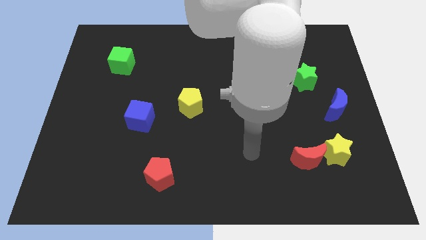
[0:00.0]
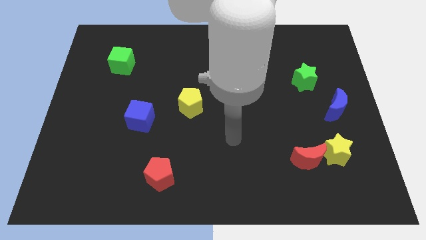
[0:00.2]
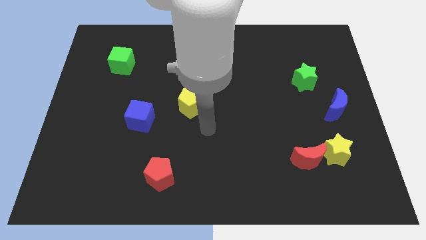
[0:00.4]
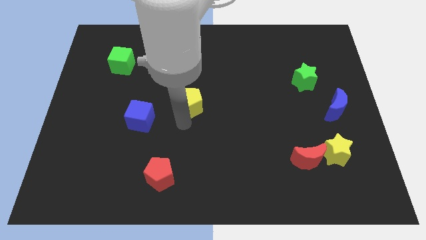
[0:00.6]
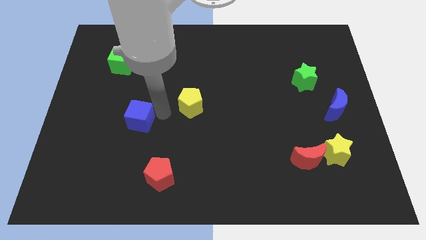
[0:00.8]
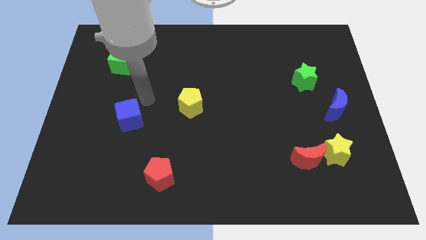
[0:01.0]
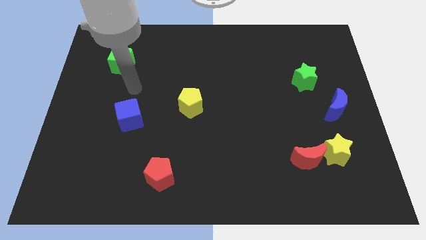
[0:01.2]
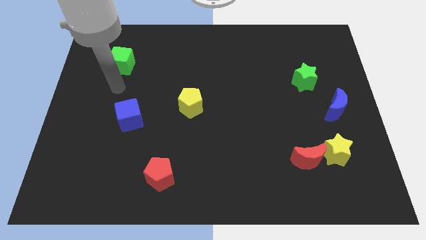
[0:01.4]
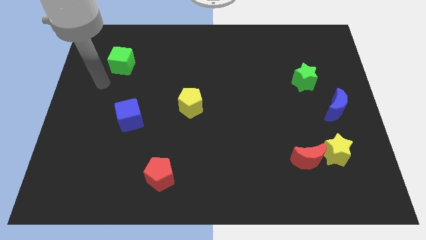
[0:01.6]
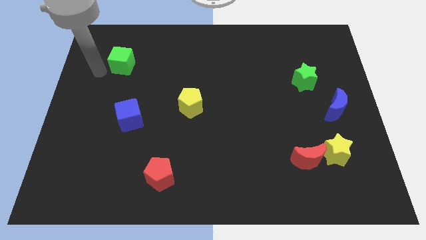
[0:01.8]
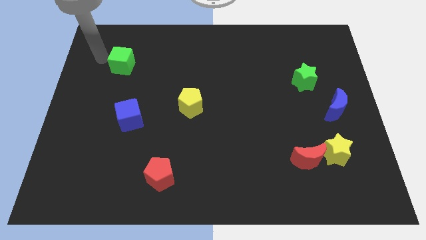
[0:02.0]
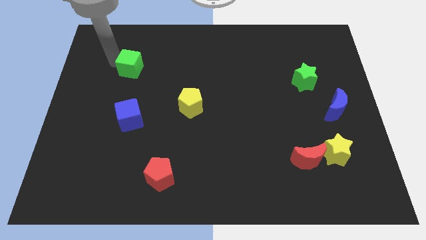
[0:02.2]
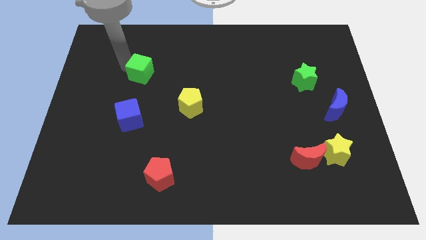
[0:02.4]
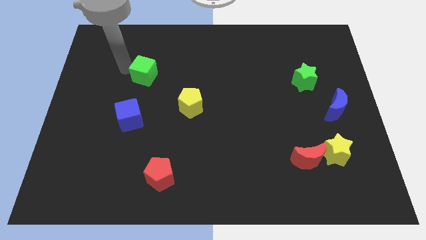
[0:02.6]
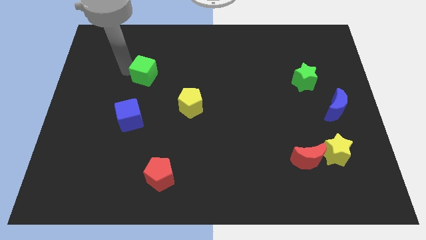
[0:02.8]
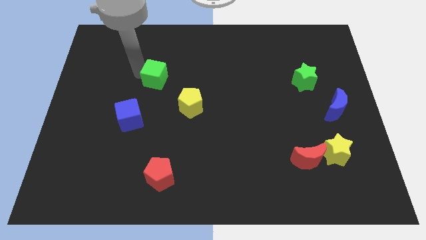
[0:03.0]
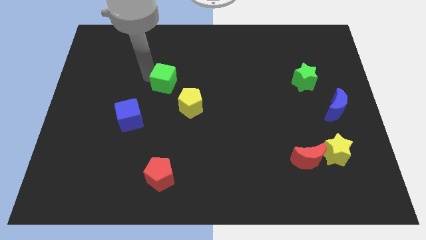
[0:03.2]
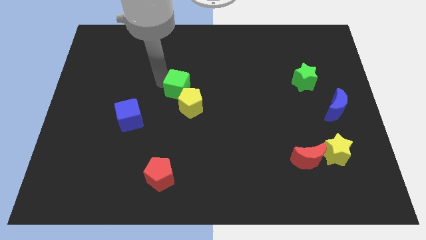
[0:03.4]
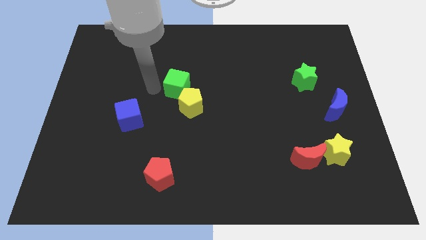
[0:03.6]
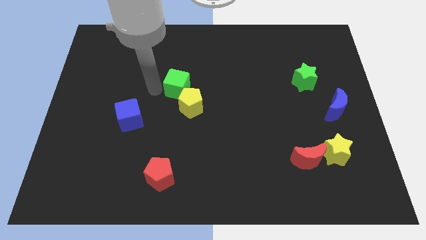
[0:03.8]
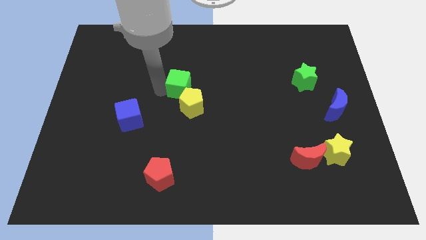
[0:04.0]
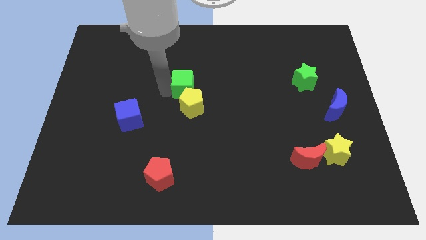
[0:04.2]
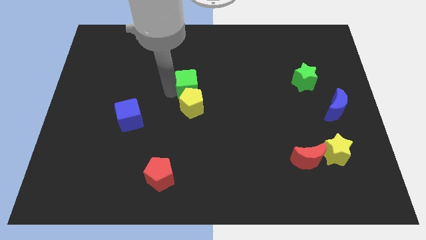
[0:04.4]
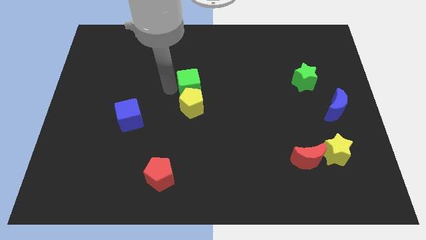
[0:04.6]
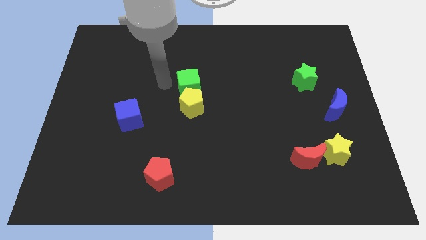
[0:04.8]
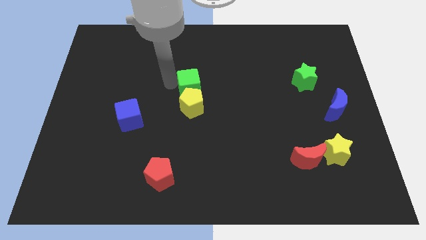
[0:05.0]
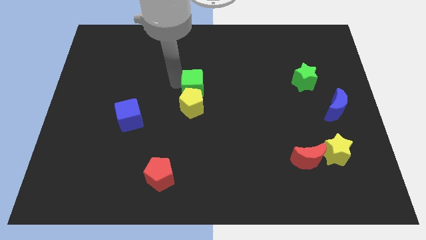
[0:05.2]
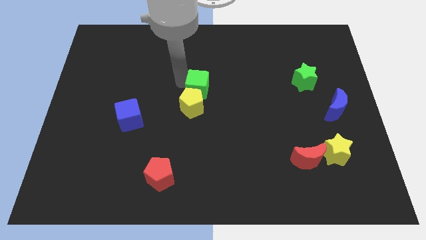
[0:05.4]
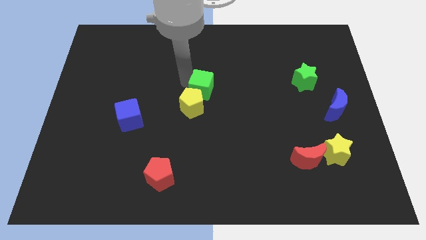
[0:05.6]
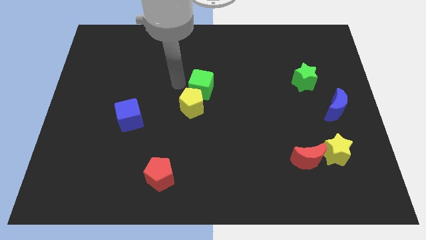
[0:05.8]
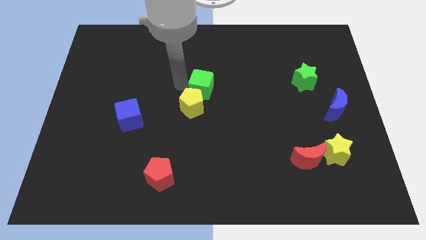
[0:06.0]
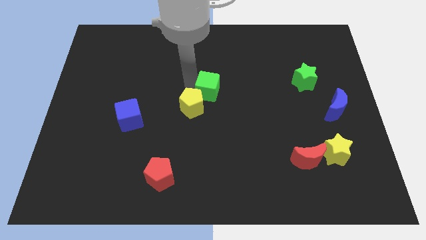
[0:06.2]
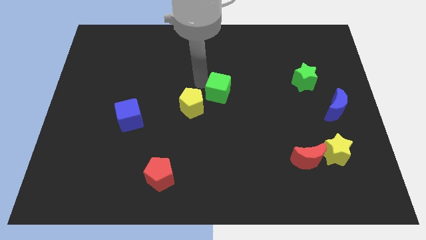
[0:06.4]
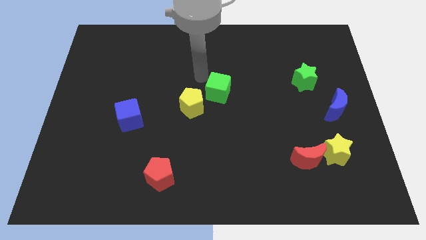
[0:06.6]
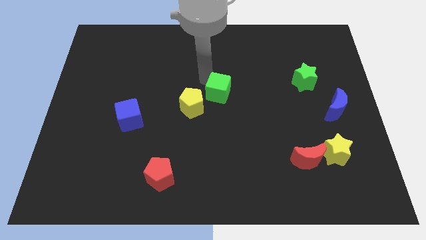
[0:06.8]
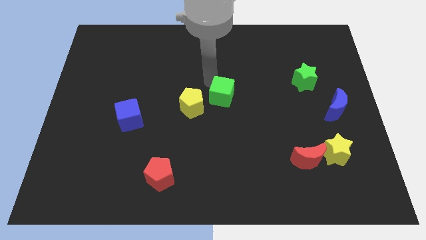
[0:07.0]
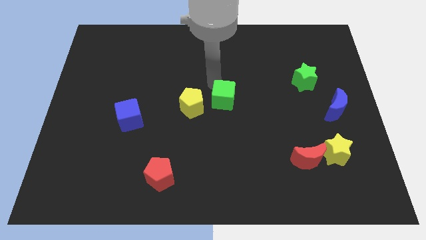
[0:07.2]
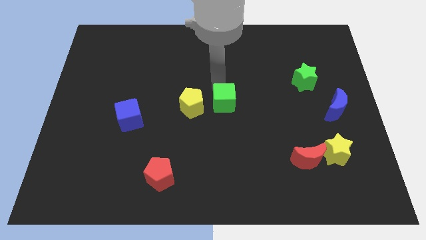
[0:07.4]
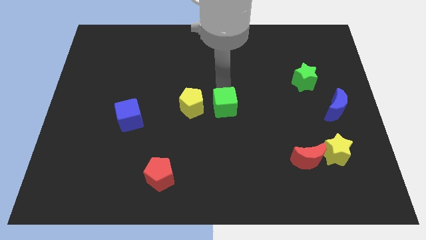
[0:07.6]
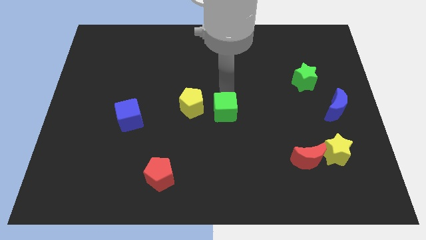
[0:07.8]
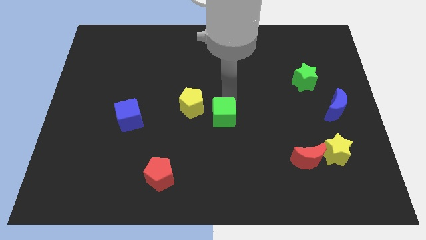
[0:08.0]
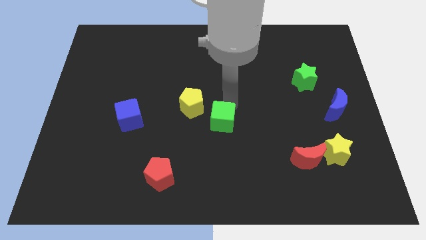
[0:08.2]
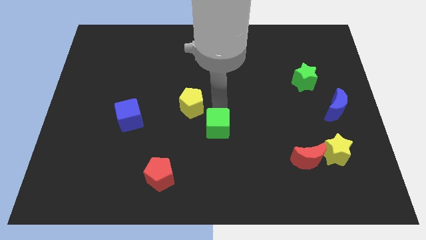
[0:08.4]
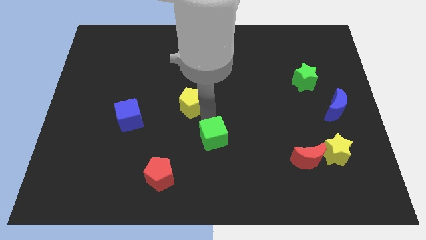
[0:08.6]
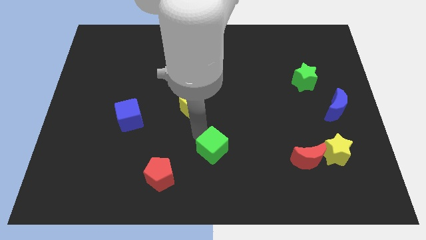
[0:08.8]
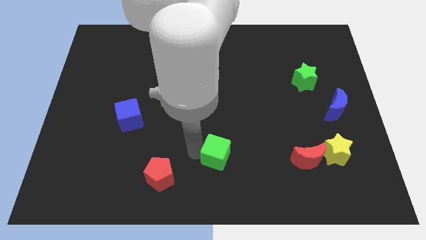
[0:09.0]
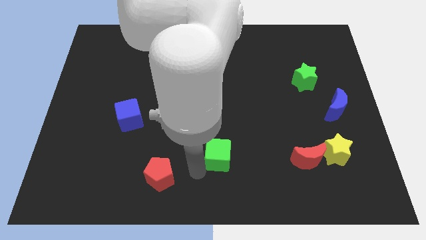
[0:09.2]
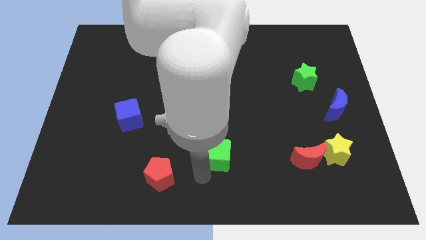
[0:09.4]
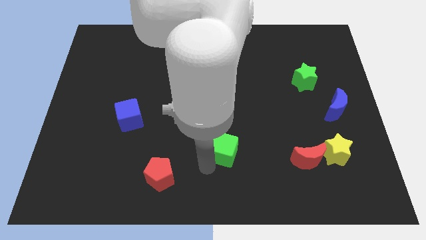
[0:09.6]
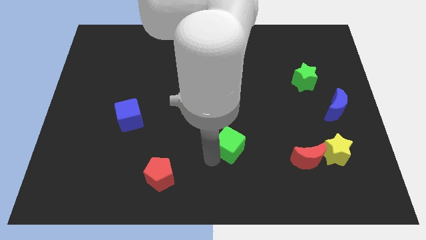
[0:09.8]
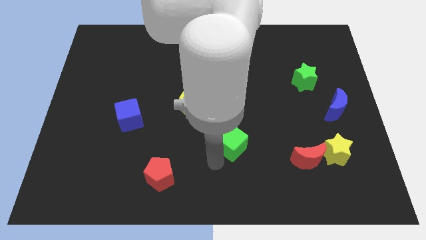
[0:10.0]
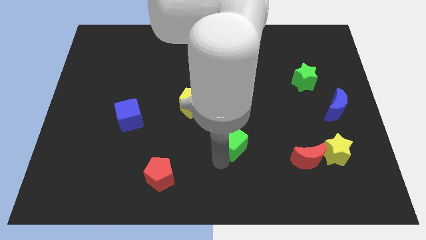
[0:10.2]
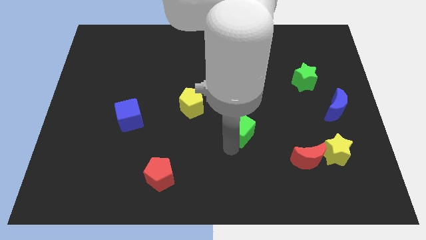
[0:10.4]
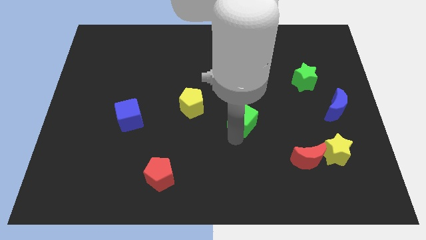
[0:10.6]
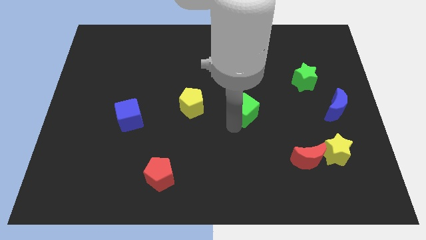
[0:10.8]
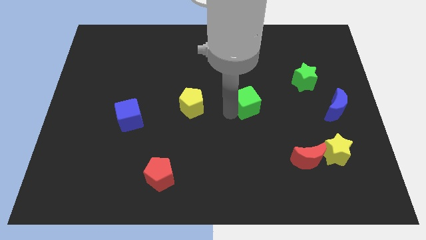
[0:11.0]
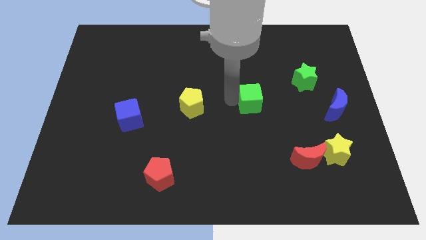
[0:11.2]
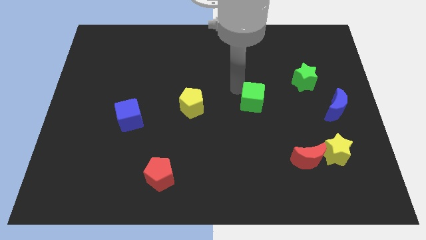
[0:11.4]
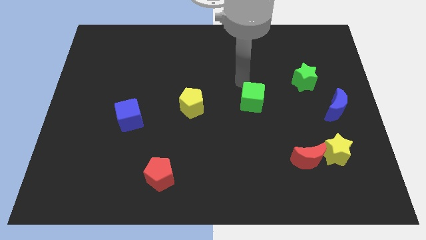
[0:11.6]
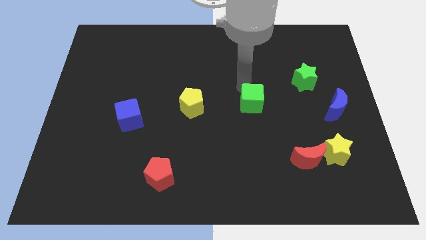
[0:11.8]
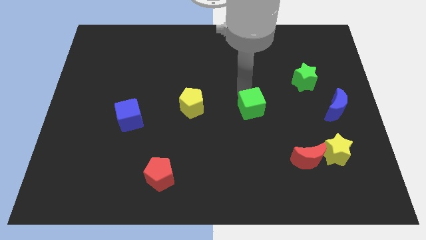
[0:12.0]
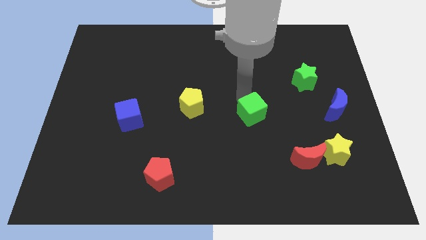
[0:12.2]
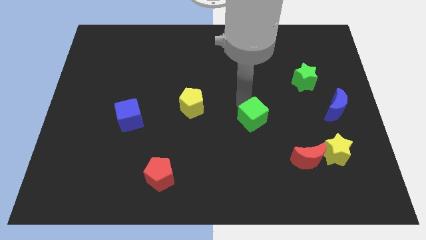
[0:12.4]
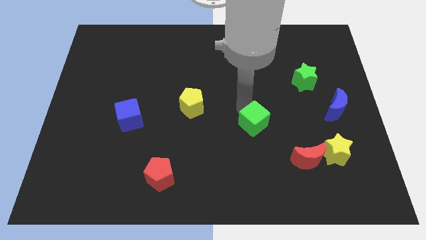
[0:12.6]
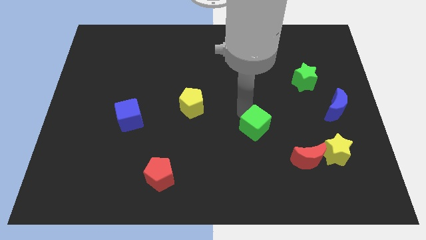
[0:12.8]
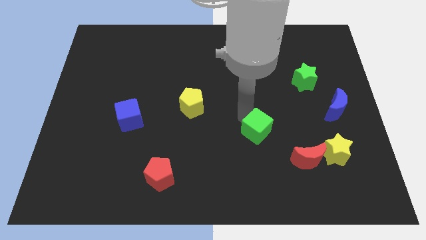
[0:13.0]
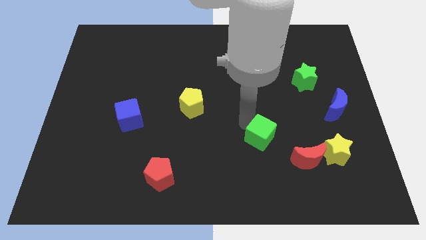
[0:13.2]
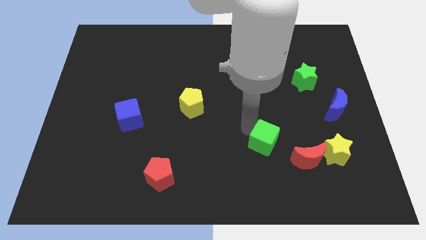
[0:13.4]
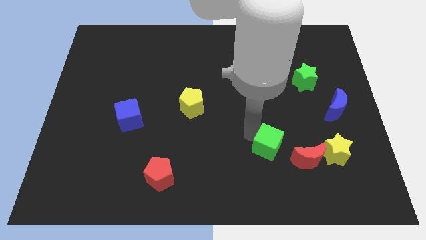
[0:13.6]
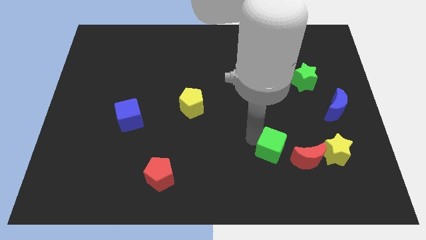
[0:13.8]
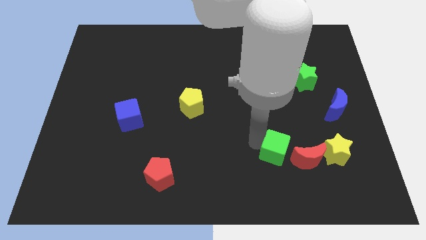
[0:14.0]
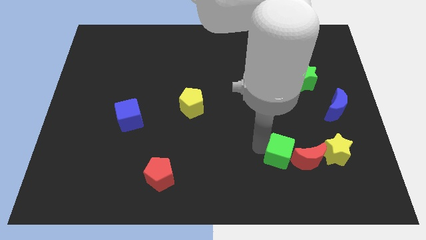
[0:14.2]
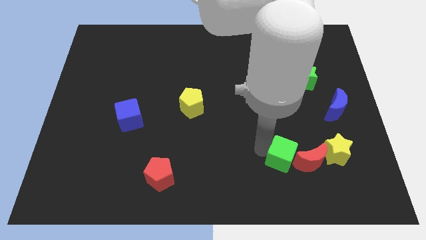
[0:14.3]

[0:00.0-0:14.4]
put the green cube to the red moon

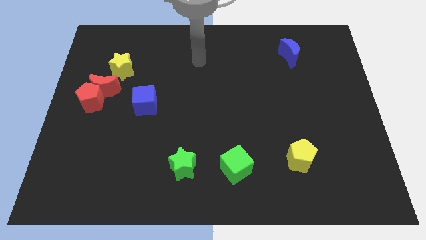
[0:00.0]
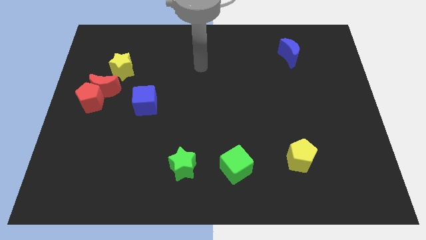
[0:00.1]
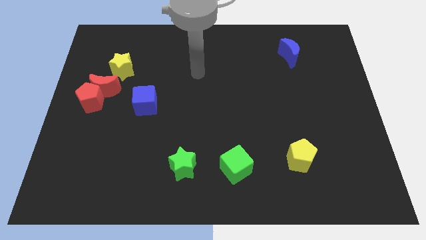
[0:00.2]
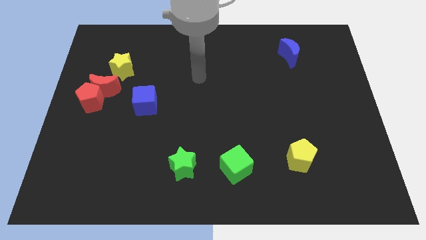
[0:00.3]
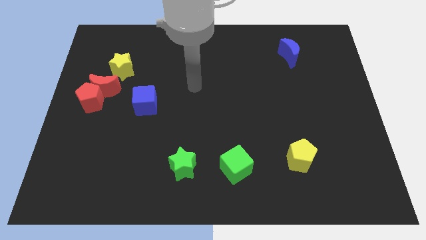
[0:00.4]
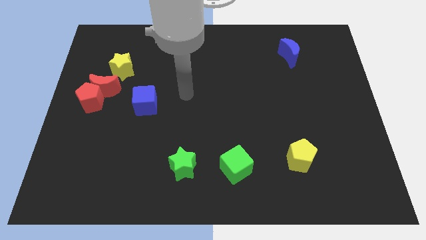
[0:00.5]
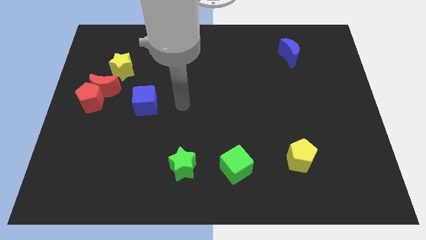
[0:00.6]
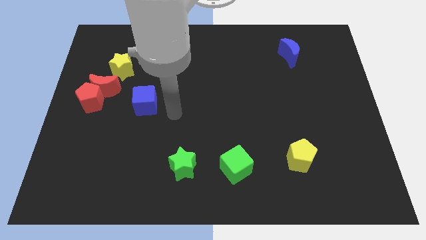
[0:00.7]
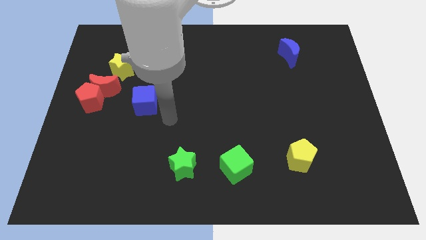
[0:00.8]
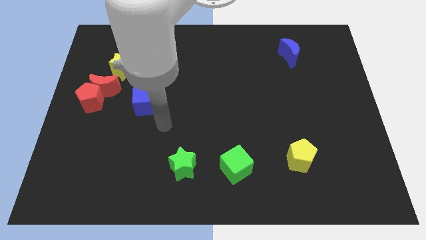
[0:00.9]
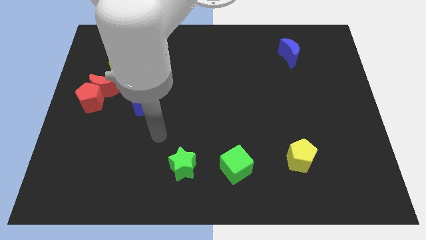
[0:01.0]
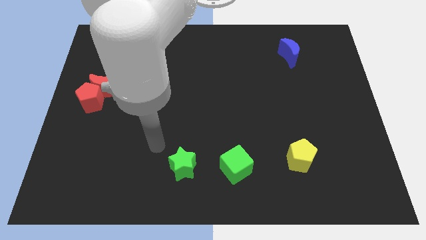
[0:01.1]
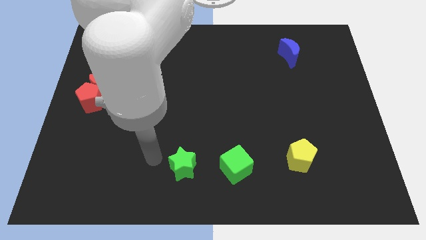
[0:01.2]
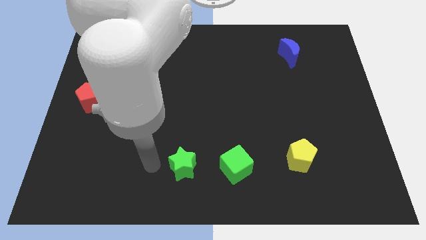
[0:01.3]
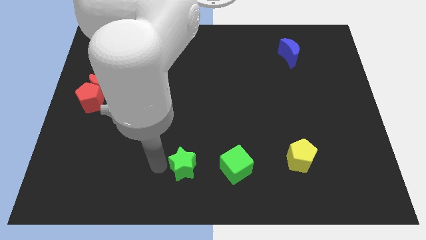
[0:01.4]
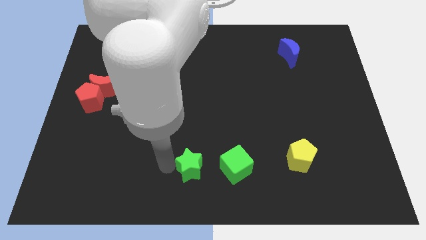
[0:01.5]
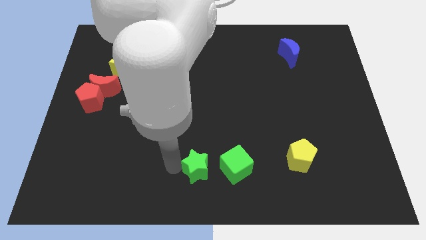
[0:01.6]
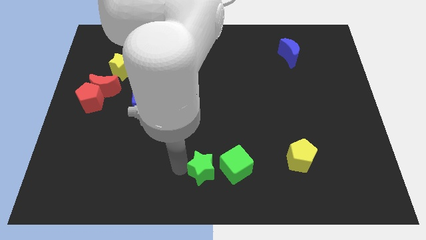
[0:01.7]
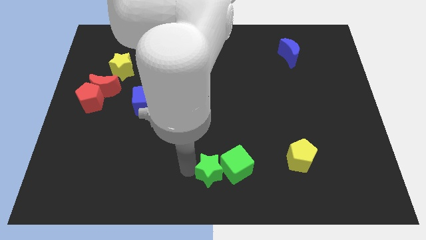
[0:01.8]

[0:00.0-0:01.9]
move the green star close to the green cube
